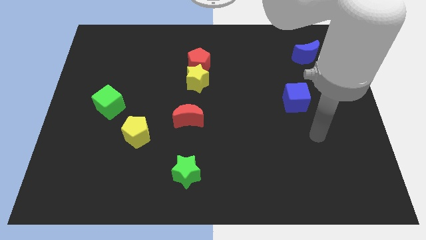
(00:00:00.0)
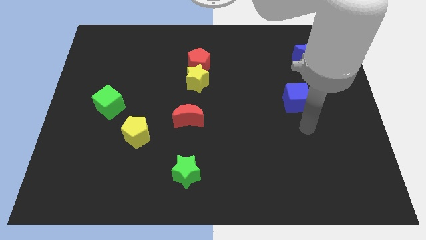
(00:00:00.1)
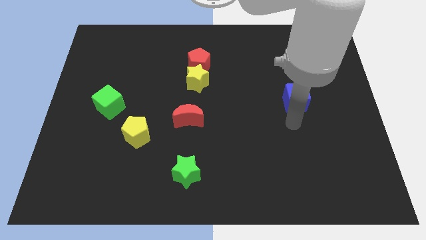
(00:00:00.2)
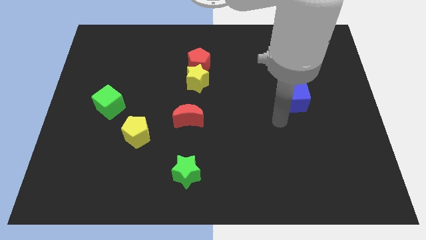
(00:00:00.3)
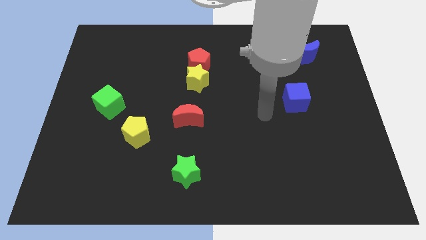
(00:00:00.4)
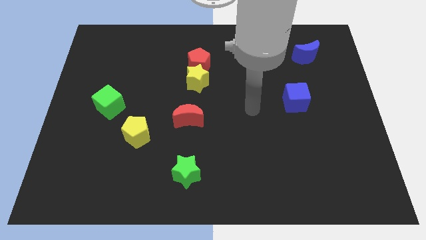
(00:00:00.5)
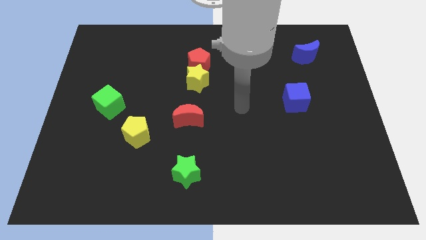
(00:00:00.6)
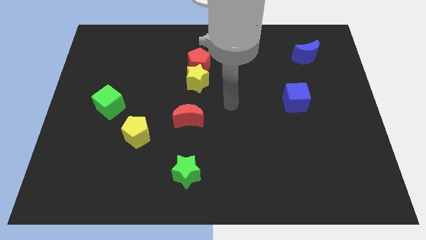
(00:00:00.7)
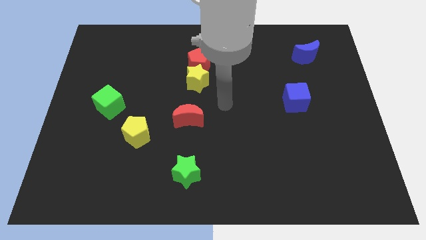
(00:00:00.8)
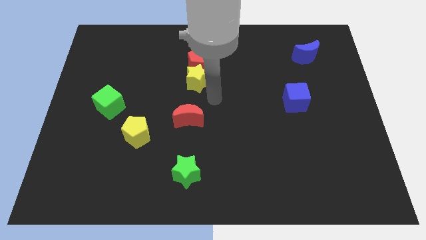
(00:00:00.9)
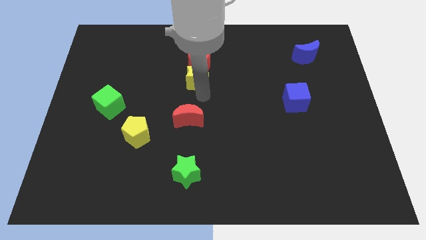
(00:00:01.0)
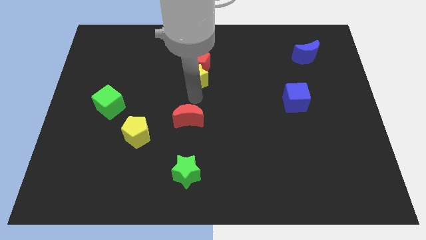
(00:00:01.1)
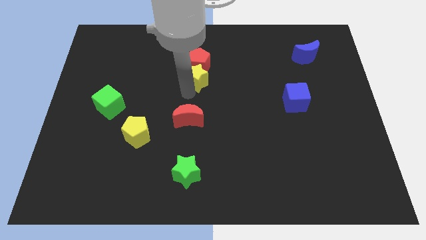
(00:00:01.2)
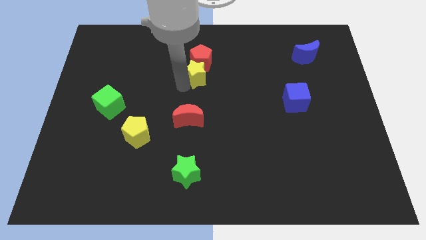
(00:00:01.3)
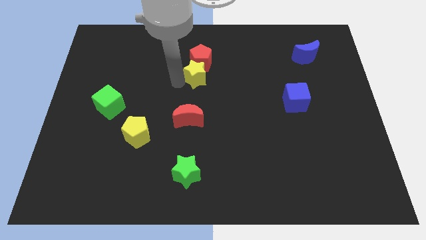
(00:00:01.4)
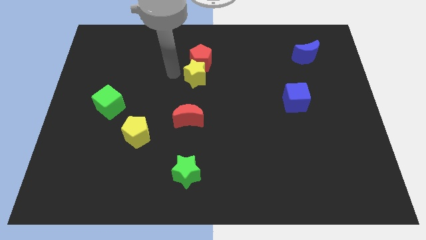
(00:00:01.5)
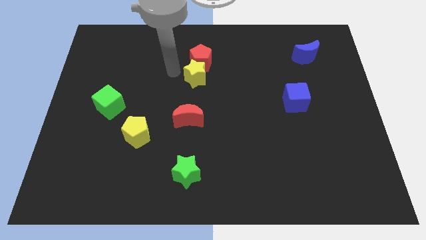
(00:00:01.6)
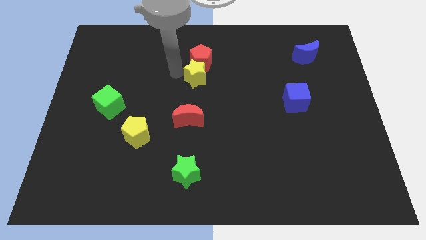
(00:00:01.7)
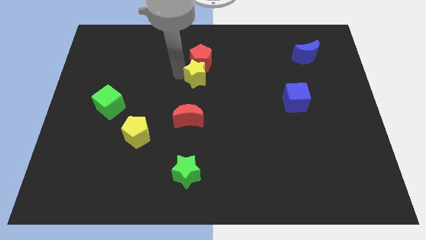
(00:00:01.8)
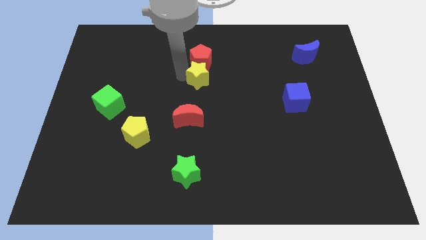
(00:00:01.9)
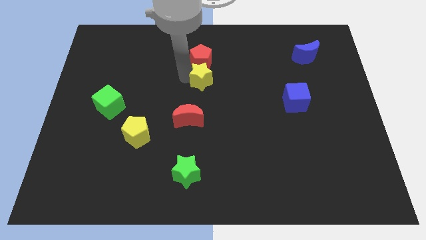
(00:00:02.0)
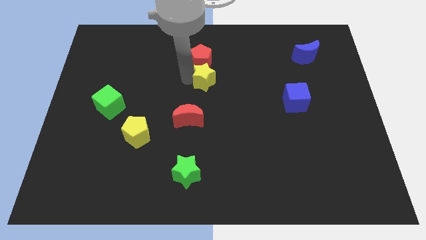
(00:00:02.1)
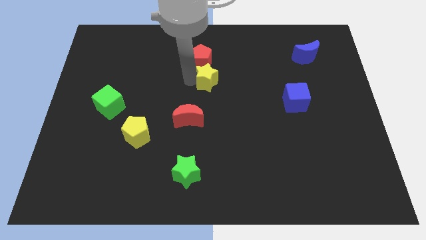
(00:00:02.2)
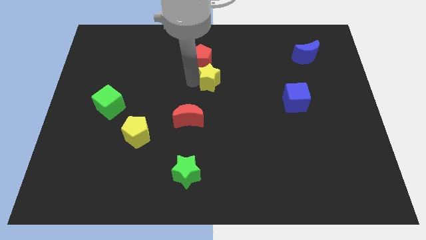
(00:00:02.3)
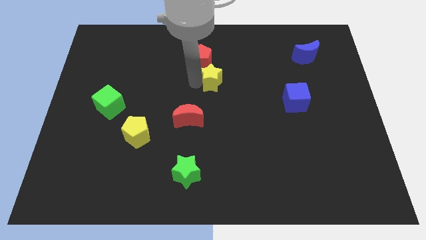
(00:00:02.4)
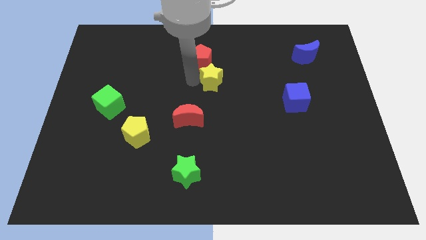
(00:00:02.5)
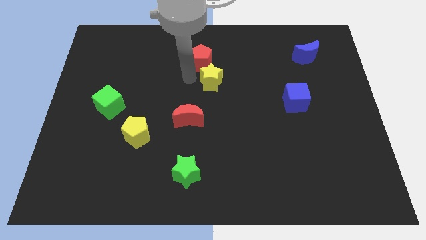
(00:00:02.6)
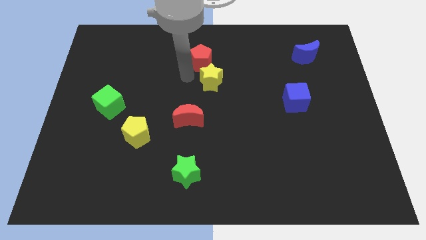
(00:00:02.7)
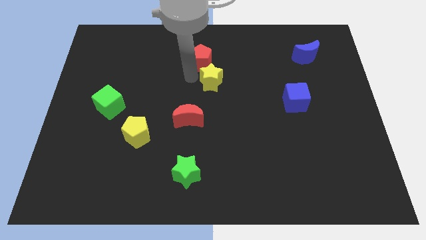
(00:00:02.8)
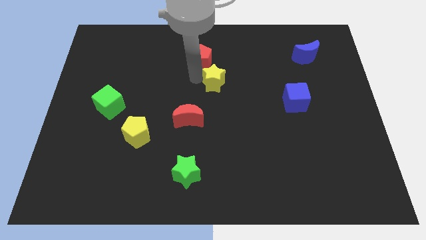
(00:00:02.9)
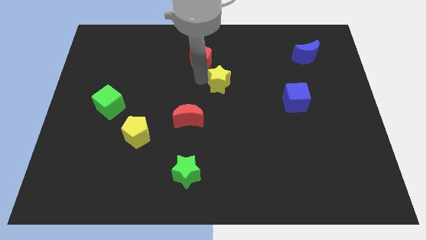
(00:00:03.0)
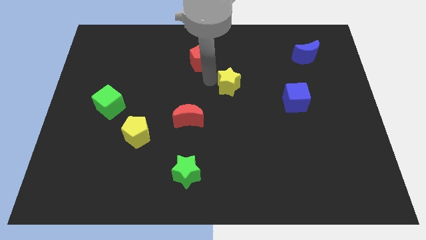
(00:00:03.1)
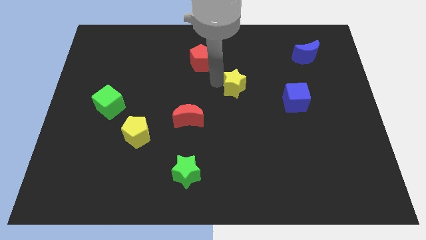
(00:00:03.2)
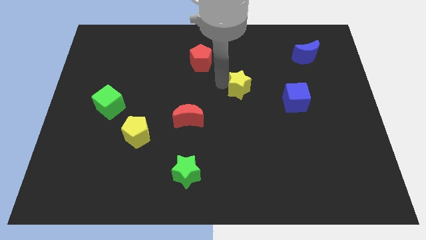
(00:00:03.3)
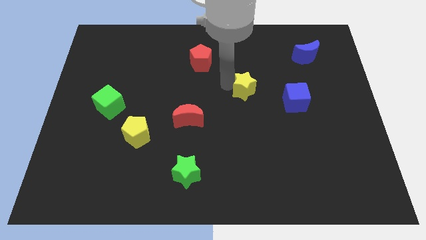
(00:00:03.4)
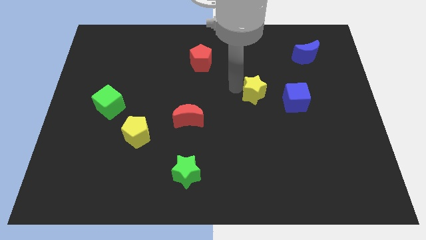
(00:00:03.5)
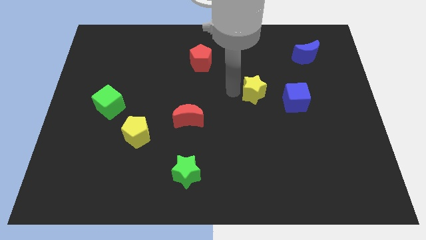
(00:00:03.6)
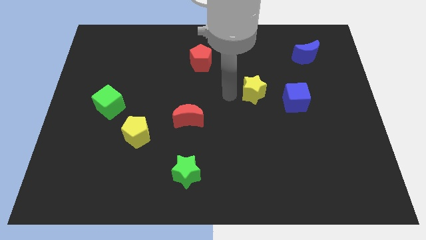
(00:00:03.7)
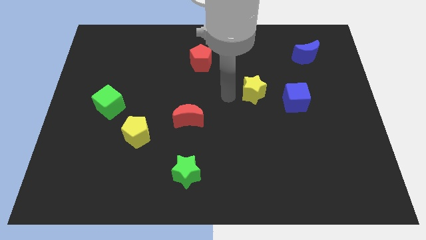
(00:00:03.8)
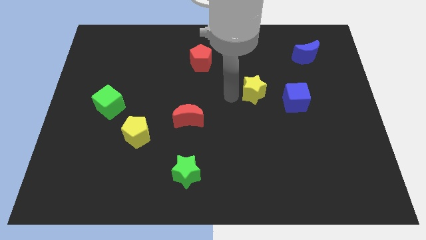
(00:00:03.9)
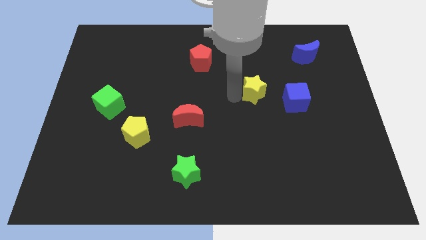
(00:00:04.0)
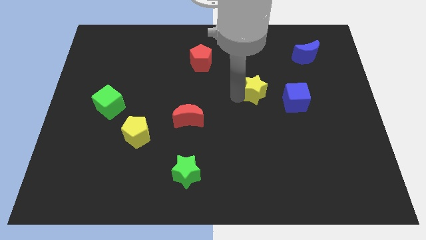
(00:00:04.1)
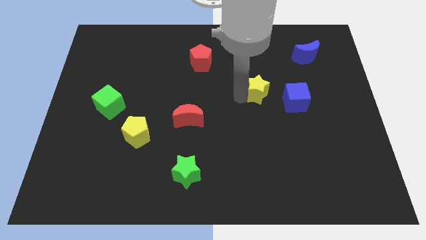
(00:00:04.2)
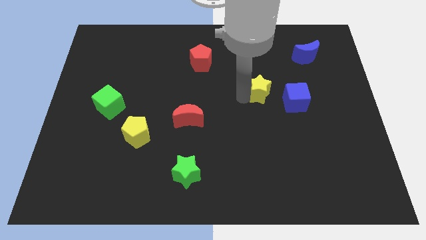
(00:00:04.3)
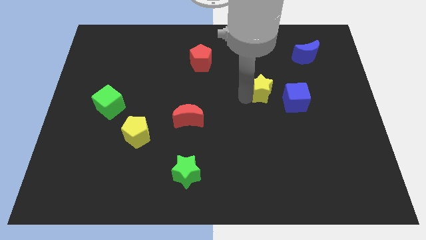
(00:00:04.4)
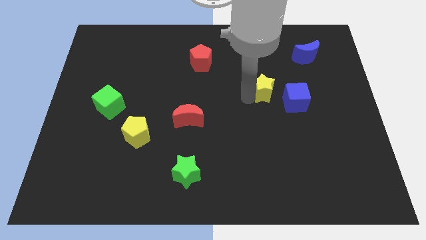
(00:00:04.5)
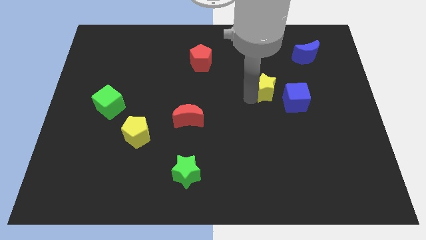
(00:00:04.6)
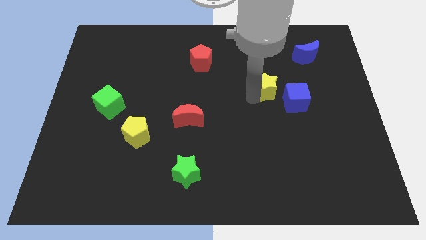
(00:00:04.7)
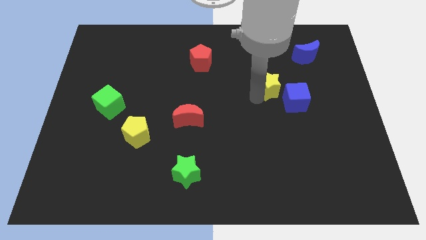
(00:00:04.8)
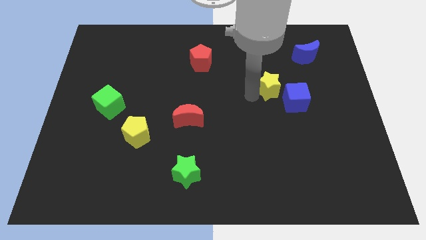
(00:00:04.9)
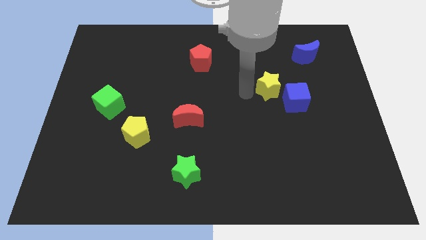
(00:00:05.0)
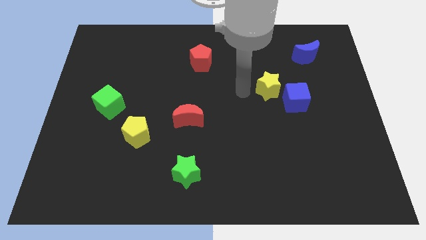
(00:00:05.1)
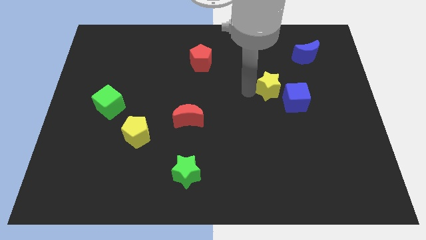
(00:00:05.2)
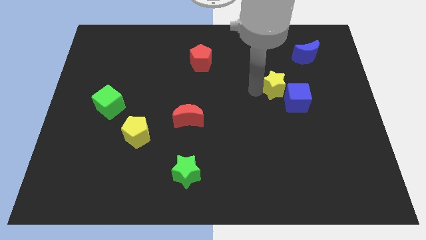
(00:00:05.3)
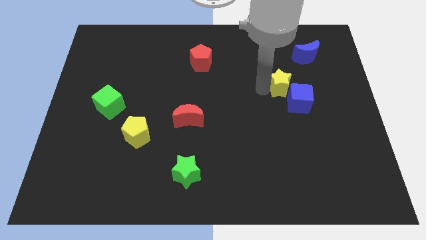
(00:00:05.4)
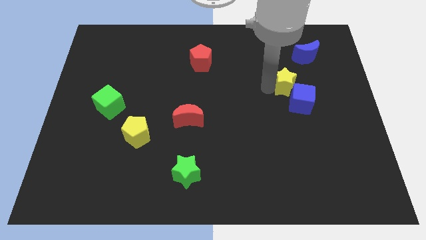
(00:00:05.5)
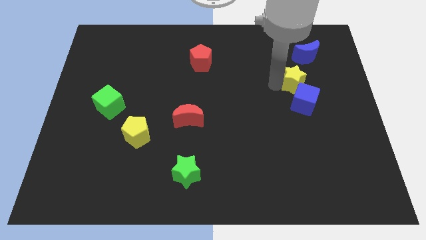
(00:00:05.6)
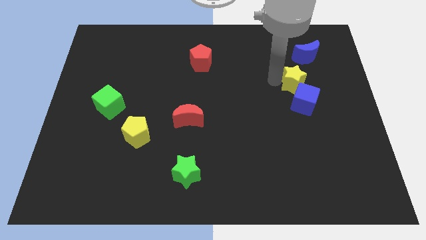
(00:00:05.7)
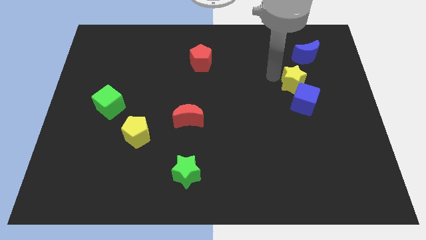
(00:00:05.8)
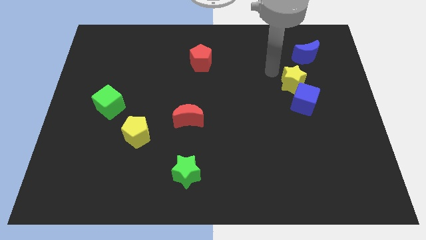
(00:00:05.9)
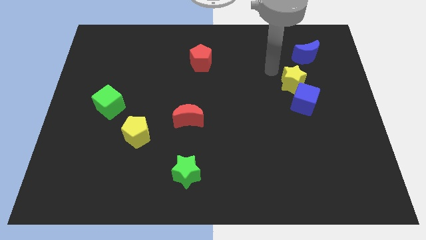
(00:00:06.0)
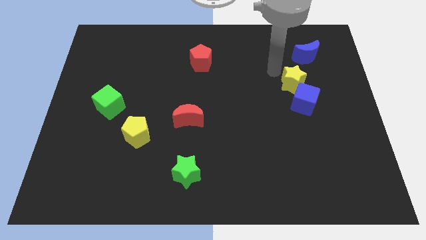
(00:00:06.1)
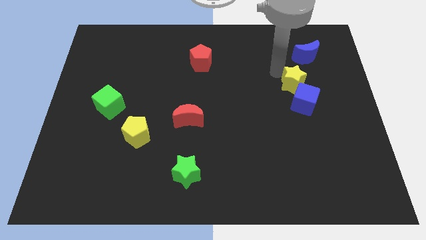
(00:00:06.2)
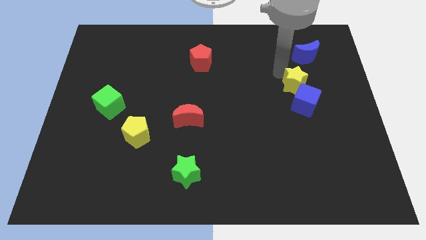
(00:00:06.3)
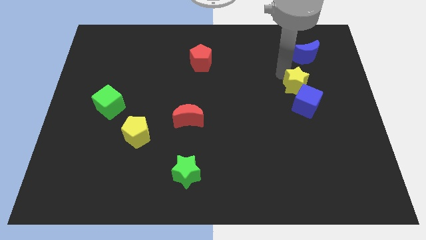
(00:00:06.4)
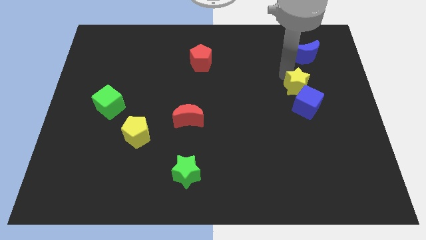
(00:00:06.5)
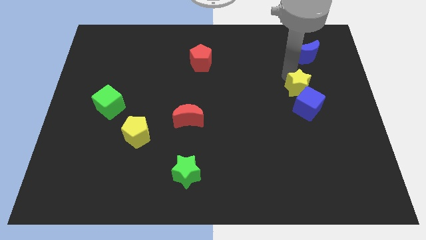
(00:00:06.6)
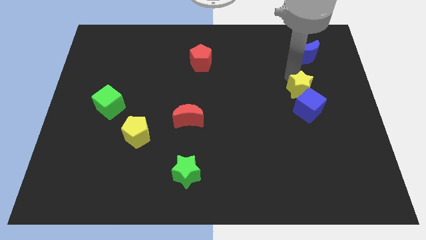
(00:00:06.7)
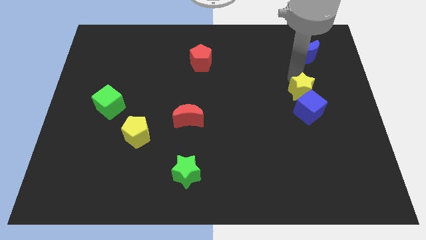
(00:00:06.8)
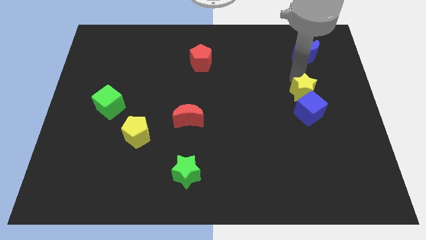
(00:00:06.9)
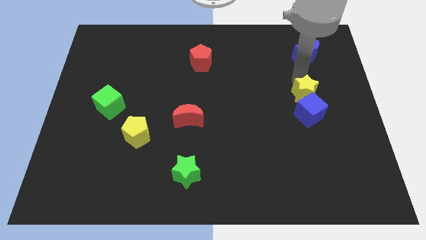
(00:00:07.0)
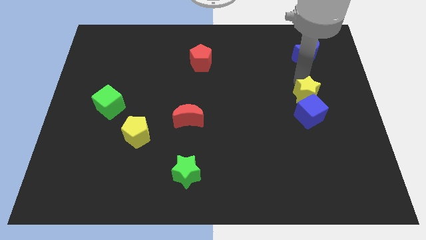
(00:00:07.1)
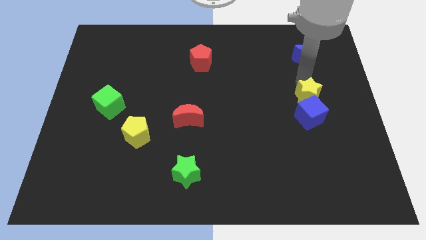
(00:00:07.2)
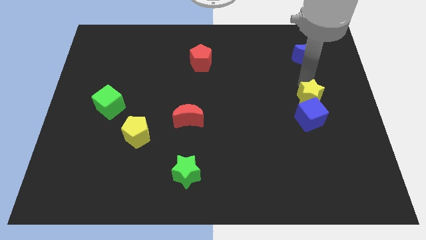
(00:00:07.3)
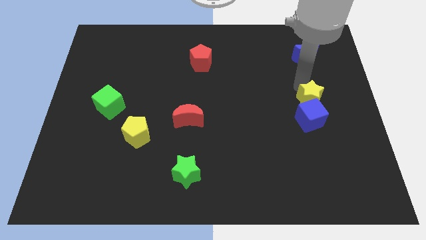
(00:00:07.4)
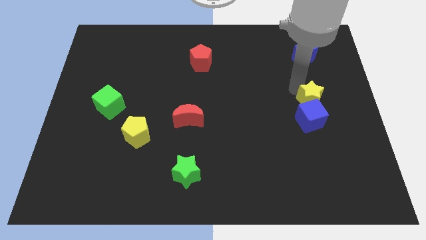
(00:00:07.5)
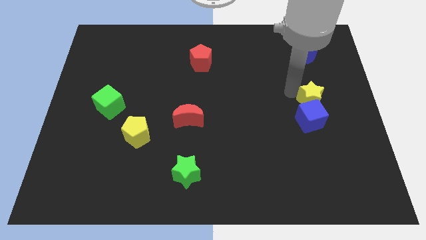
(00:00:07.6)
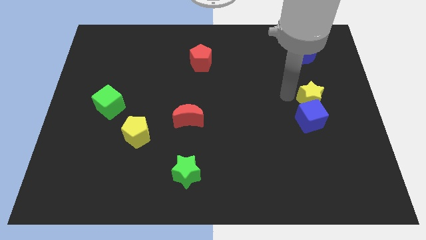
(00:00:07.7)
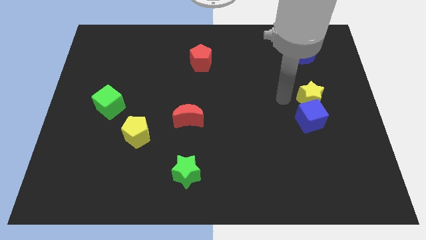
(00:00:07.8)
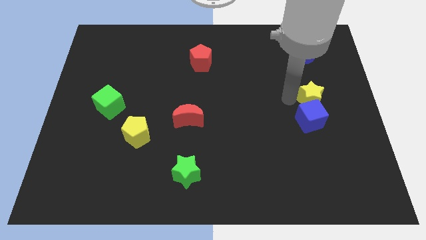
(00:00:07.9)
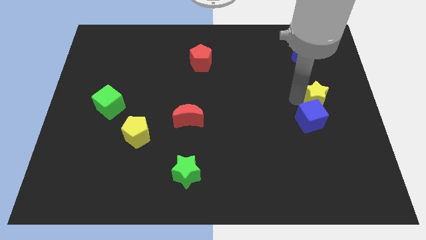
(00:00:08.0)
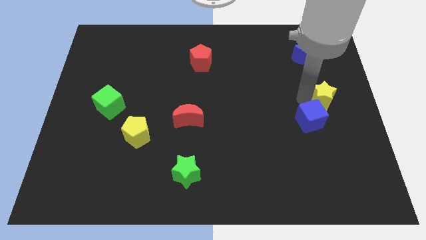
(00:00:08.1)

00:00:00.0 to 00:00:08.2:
put the yellow star to the right side of the board
